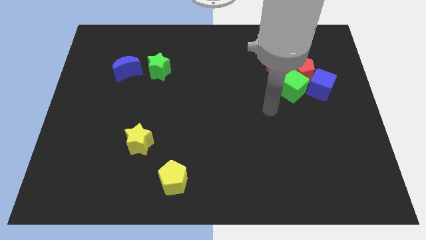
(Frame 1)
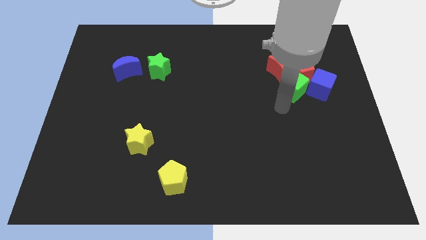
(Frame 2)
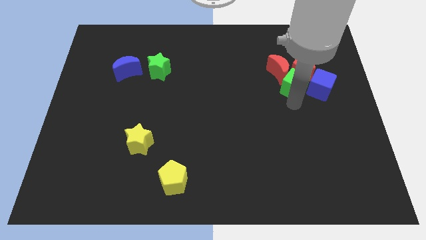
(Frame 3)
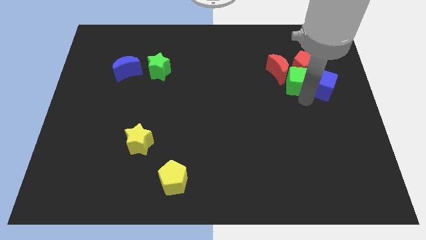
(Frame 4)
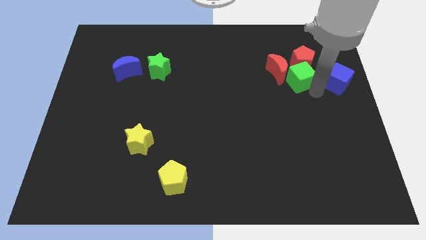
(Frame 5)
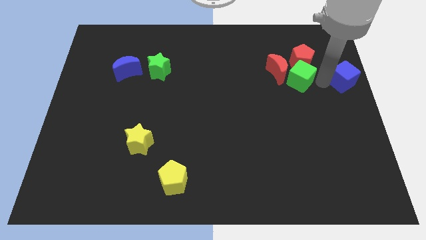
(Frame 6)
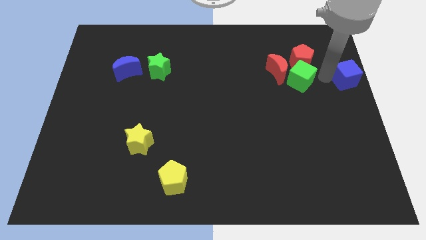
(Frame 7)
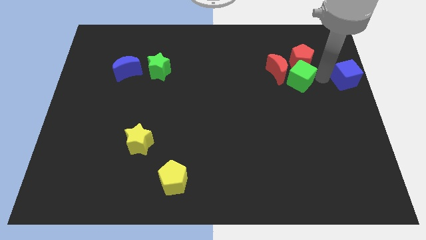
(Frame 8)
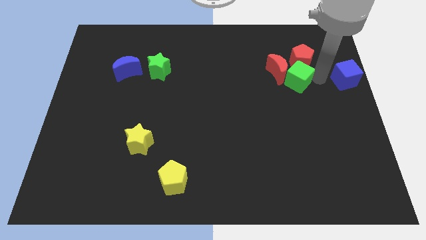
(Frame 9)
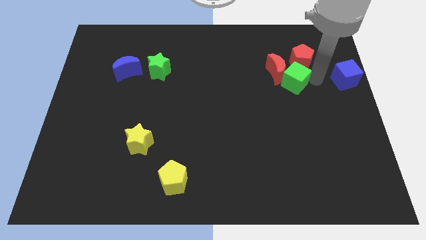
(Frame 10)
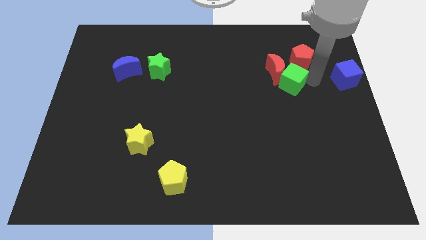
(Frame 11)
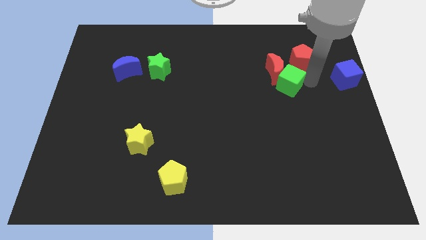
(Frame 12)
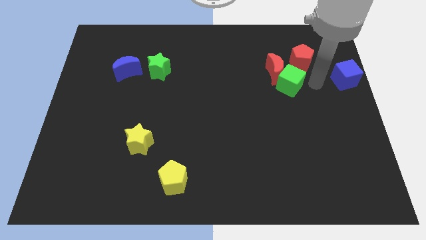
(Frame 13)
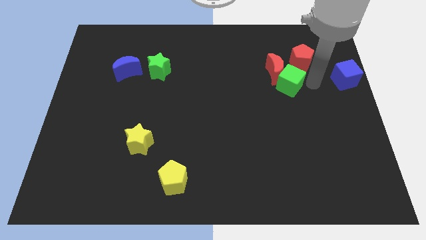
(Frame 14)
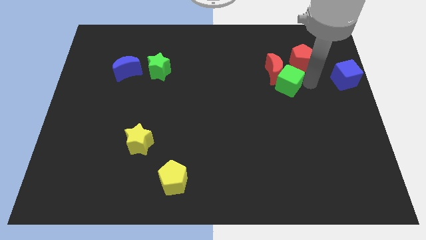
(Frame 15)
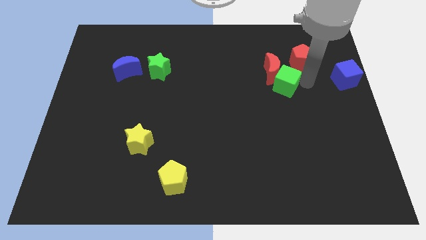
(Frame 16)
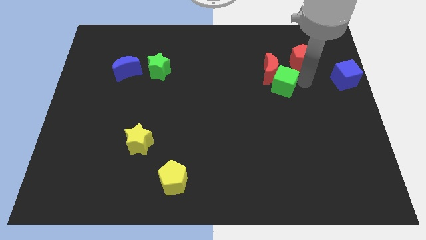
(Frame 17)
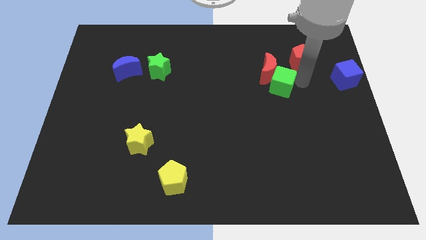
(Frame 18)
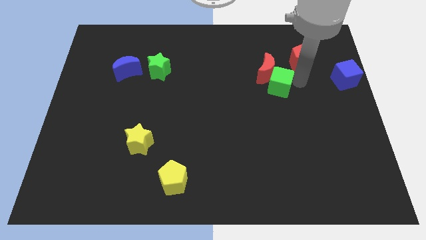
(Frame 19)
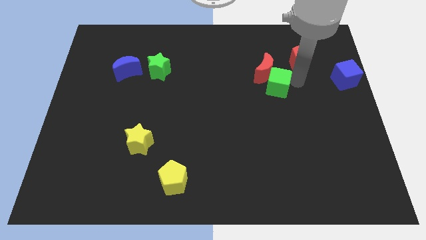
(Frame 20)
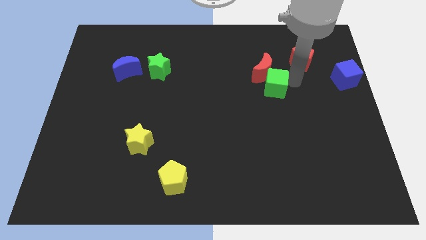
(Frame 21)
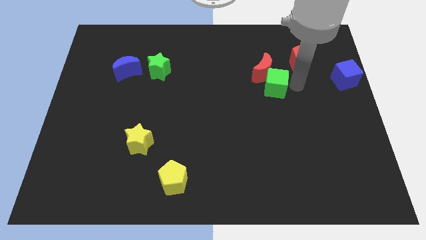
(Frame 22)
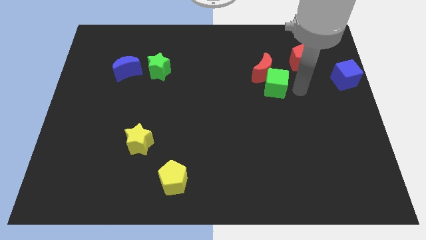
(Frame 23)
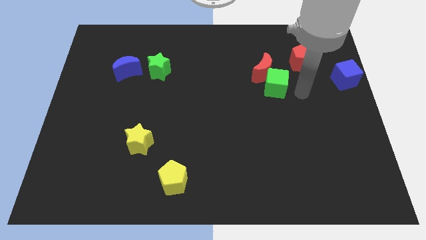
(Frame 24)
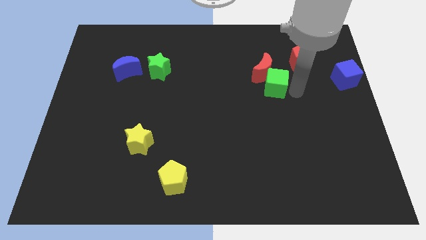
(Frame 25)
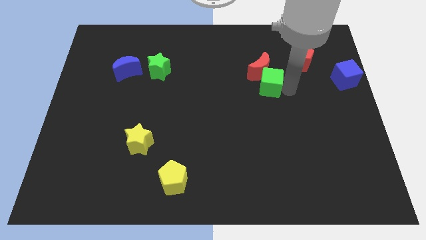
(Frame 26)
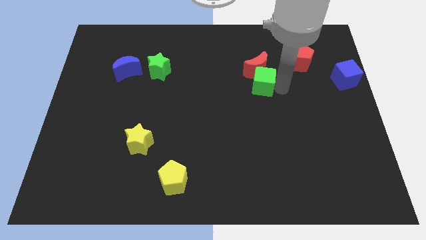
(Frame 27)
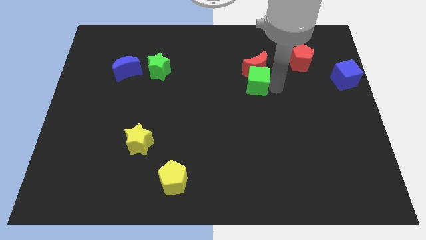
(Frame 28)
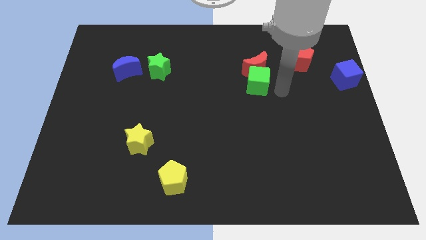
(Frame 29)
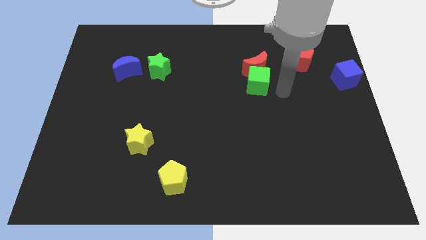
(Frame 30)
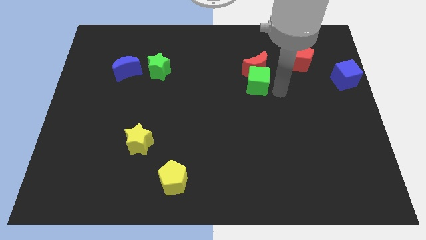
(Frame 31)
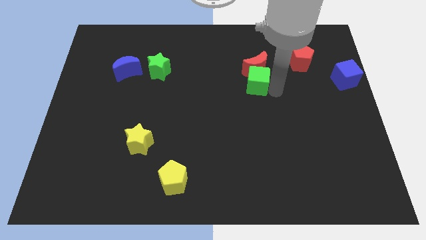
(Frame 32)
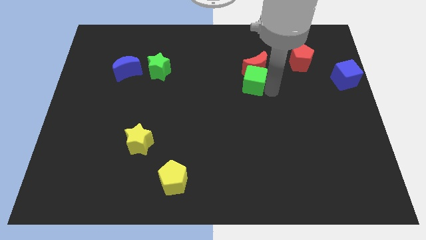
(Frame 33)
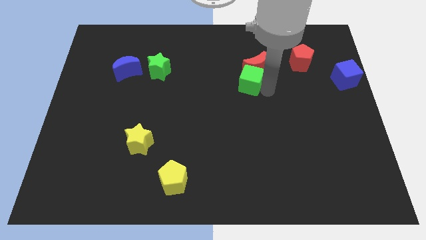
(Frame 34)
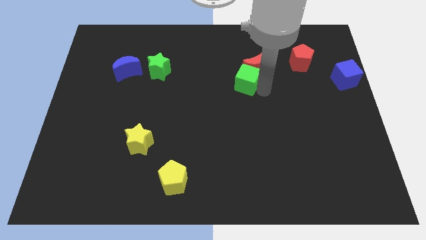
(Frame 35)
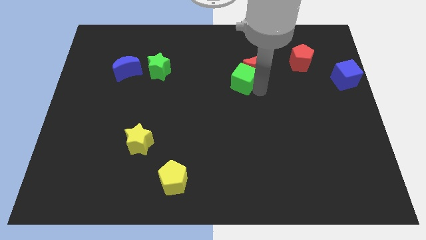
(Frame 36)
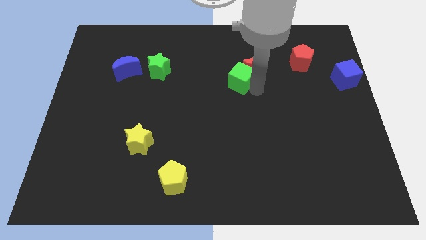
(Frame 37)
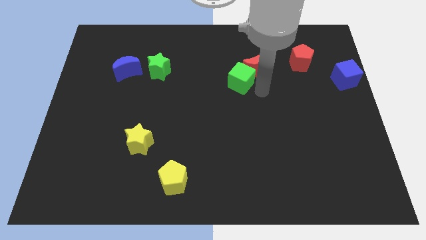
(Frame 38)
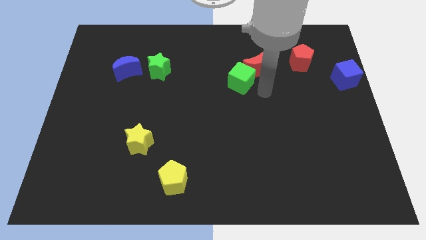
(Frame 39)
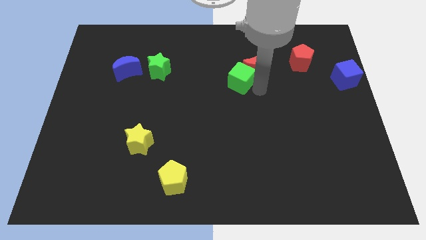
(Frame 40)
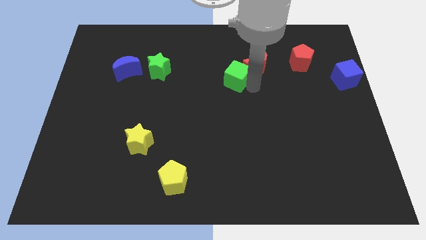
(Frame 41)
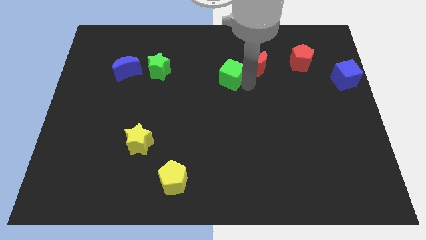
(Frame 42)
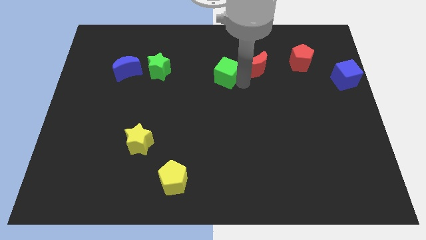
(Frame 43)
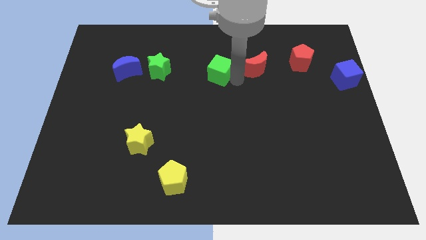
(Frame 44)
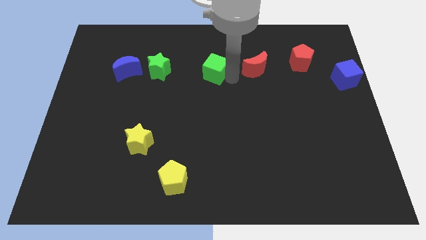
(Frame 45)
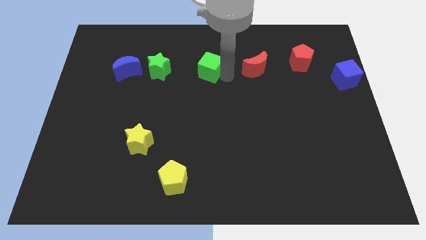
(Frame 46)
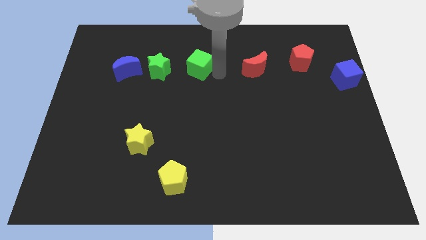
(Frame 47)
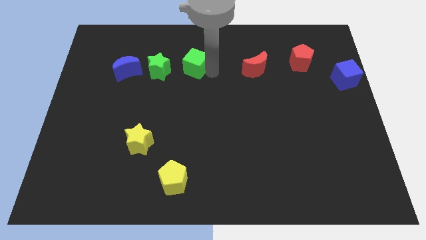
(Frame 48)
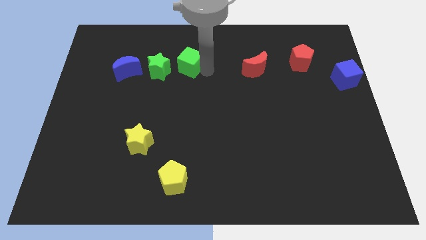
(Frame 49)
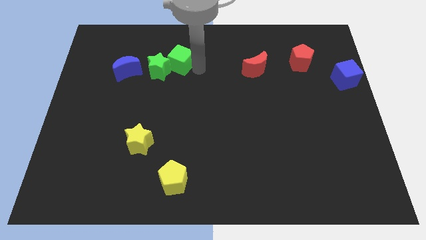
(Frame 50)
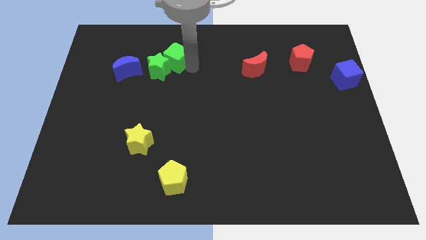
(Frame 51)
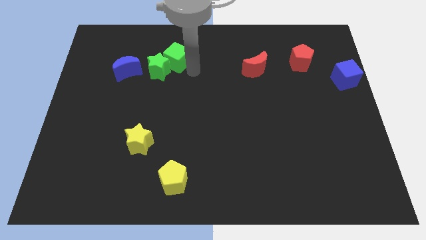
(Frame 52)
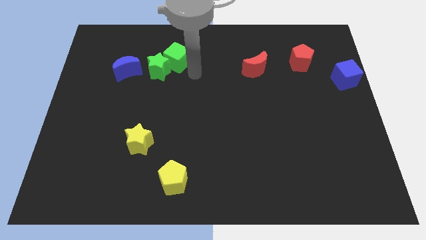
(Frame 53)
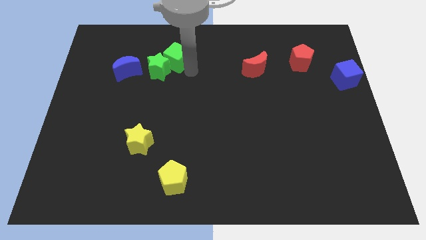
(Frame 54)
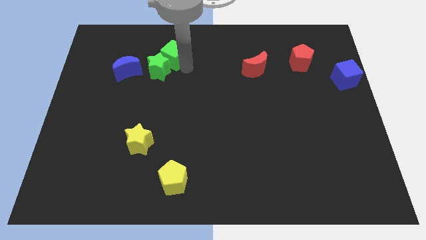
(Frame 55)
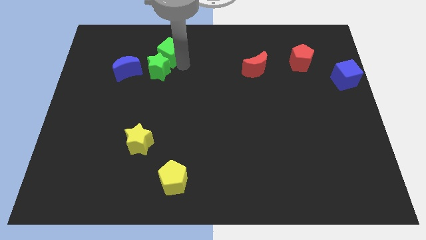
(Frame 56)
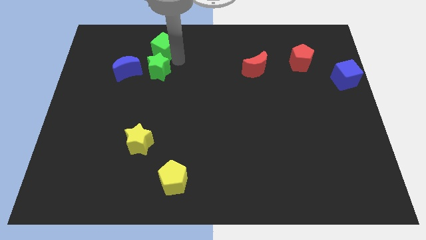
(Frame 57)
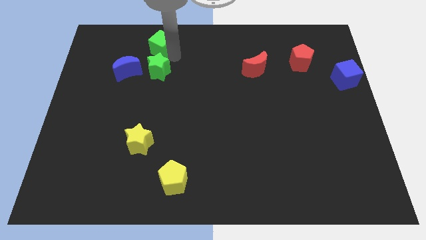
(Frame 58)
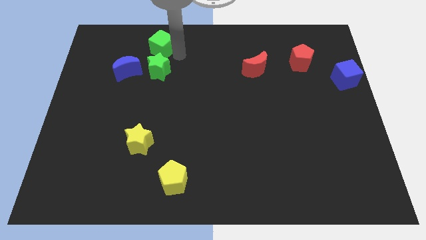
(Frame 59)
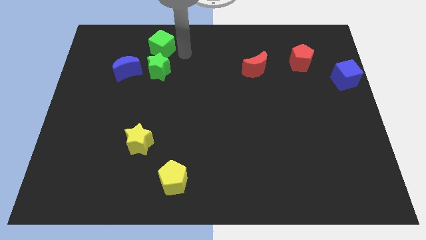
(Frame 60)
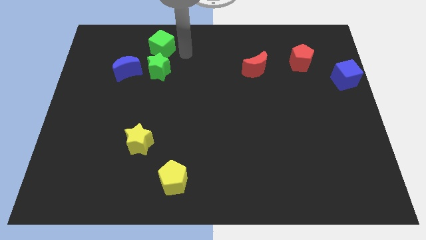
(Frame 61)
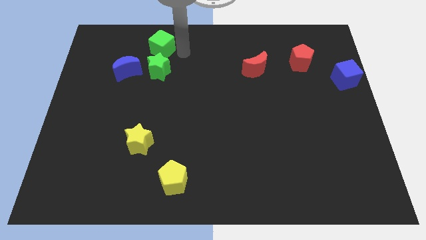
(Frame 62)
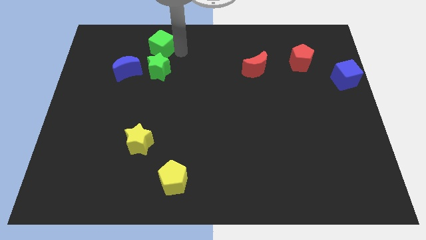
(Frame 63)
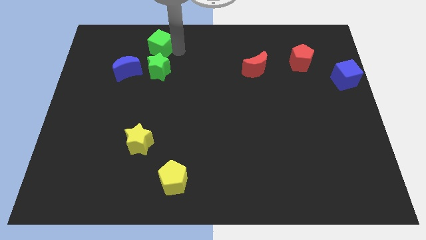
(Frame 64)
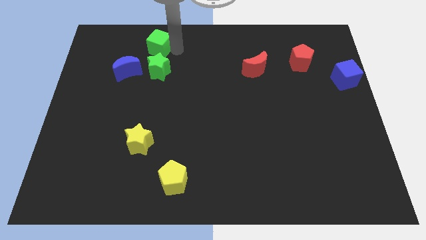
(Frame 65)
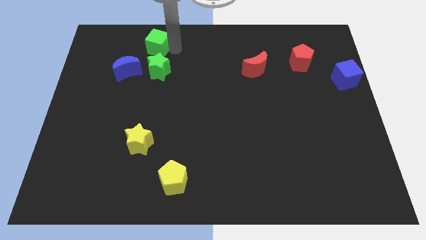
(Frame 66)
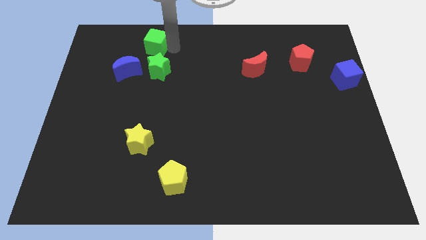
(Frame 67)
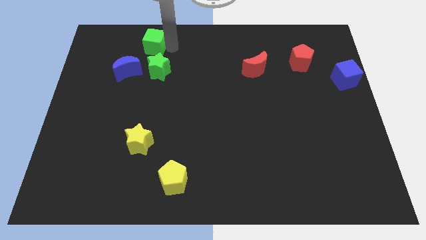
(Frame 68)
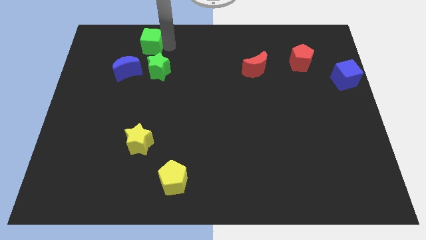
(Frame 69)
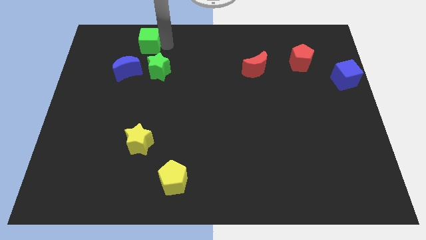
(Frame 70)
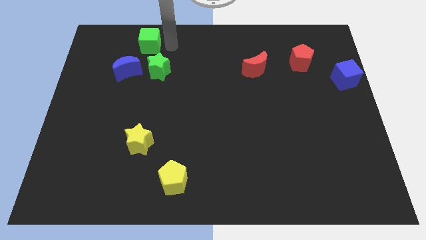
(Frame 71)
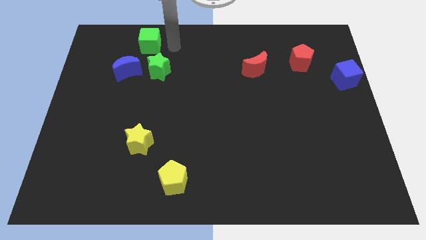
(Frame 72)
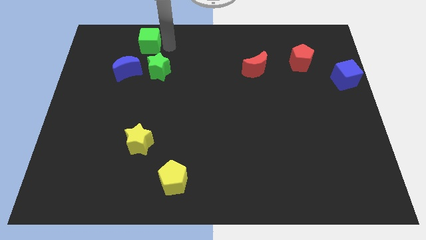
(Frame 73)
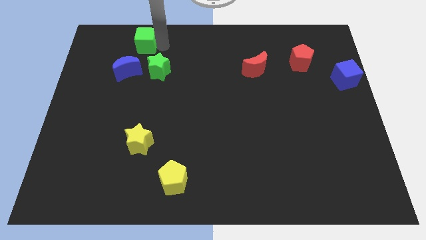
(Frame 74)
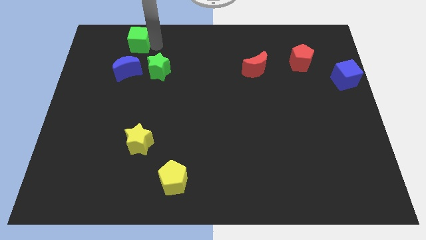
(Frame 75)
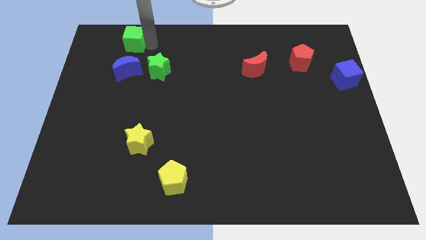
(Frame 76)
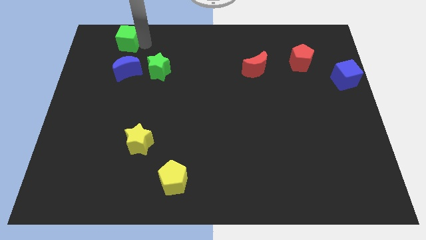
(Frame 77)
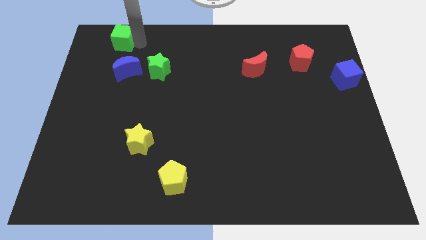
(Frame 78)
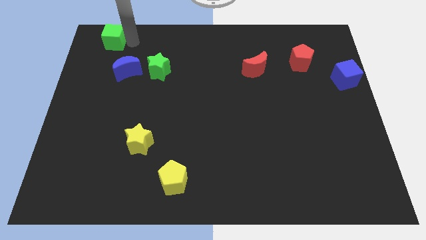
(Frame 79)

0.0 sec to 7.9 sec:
move the green cube to the top left of the board
